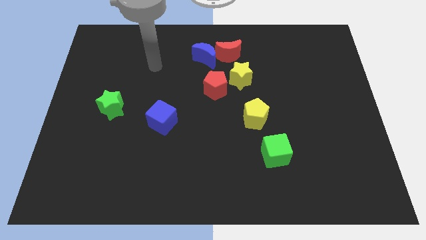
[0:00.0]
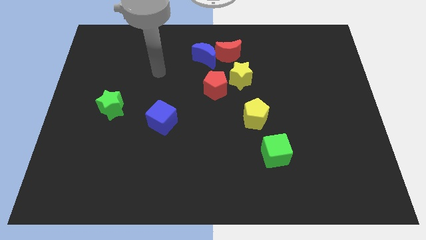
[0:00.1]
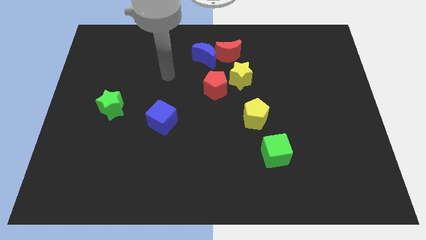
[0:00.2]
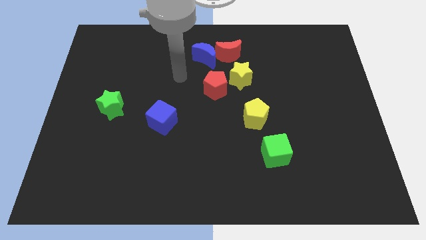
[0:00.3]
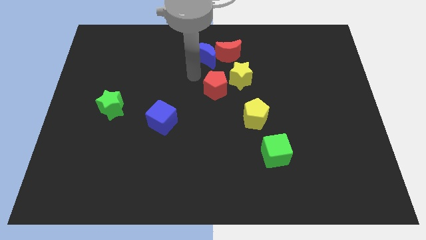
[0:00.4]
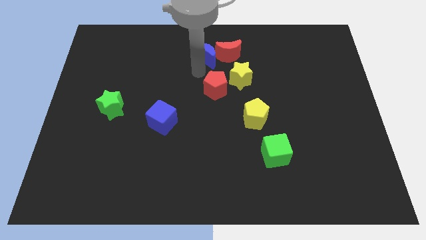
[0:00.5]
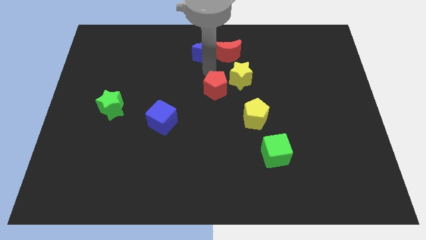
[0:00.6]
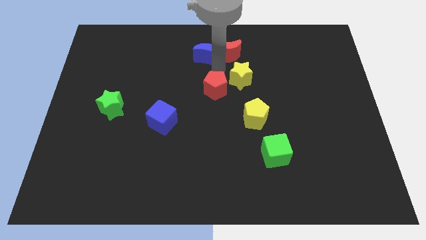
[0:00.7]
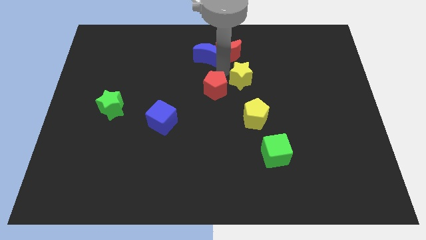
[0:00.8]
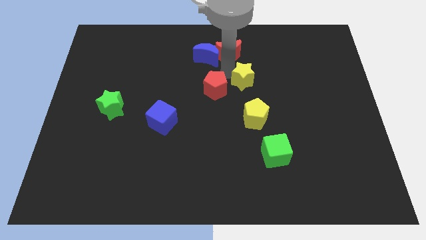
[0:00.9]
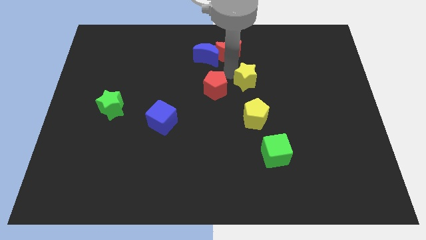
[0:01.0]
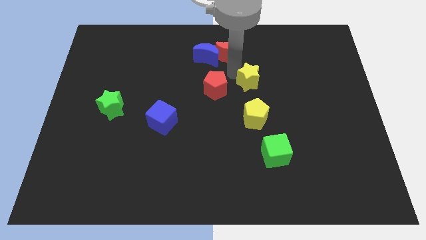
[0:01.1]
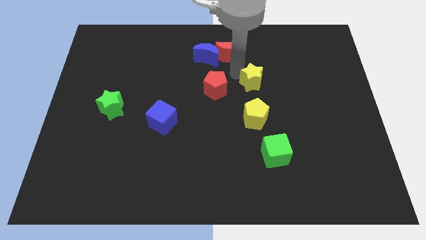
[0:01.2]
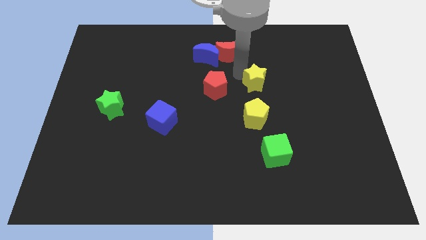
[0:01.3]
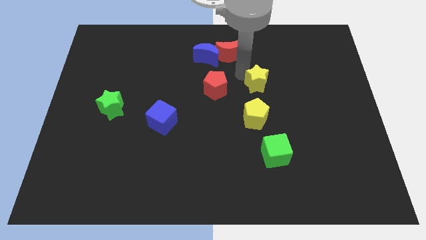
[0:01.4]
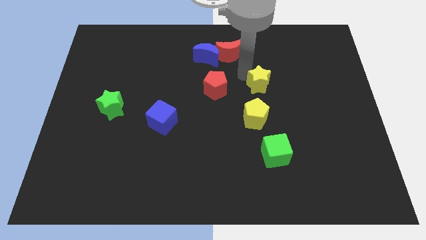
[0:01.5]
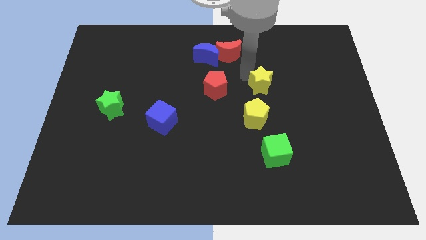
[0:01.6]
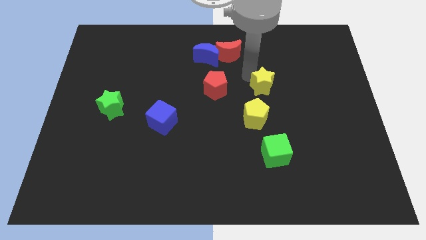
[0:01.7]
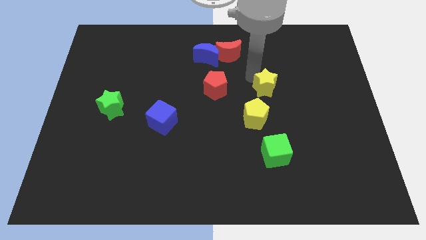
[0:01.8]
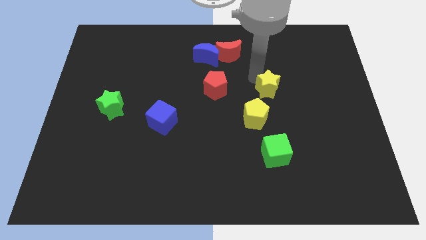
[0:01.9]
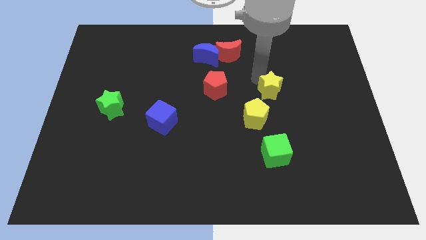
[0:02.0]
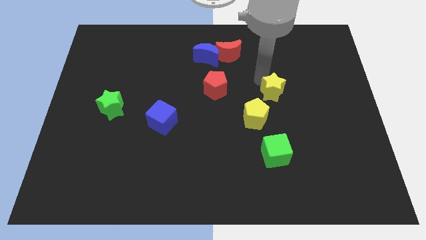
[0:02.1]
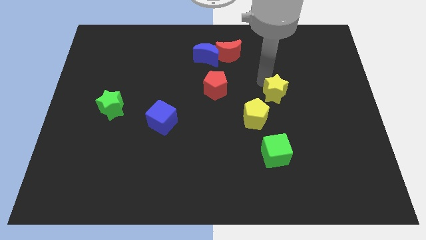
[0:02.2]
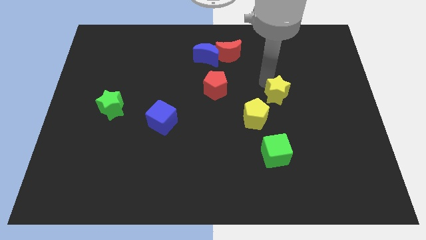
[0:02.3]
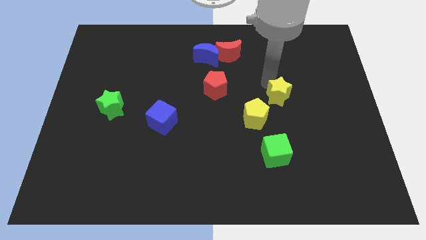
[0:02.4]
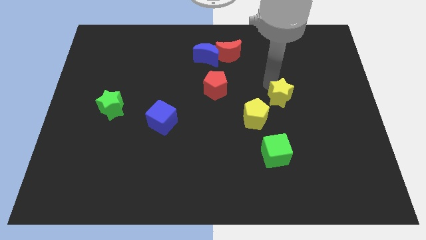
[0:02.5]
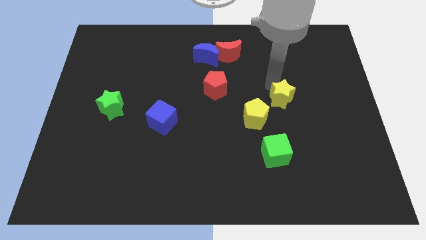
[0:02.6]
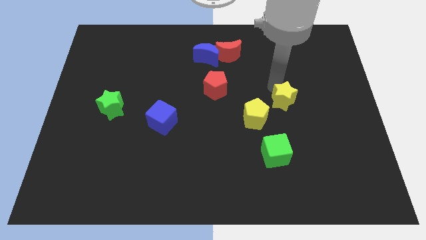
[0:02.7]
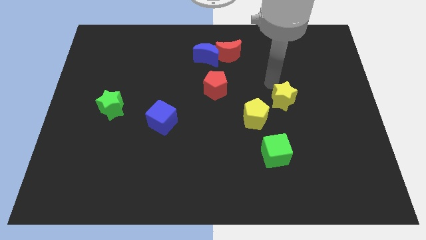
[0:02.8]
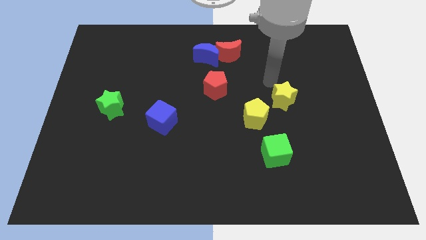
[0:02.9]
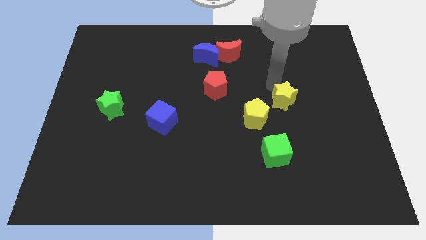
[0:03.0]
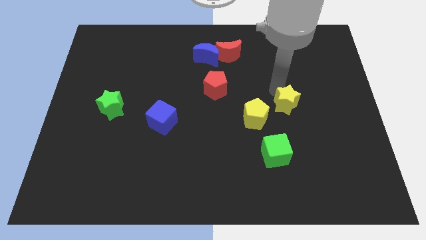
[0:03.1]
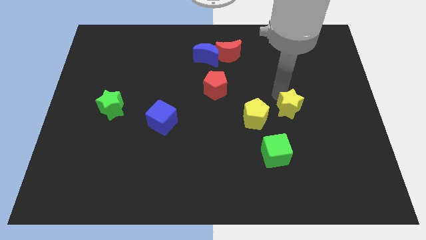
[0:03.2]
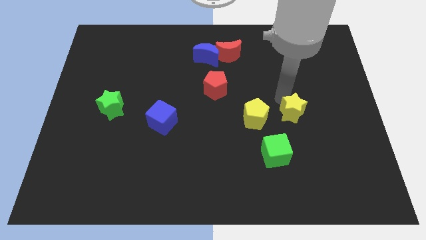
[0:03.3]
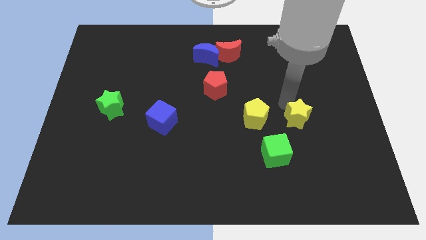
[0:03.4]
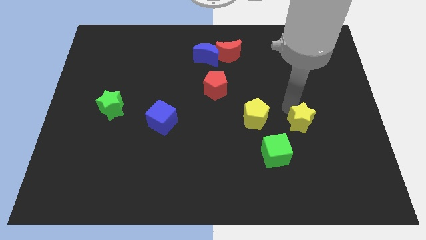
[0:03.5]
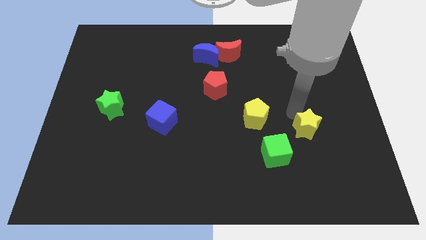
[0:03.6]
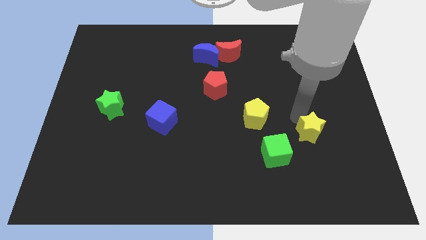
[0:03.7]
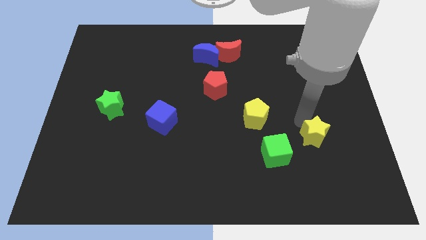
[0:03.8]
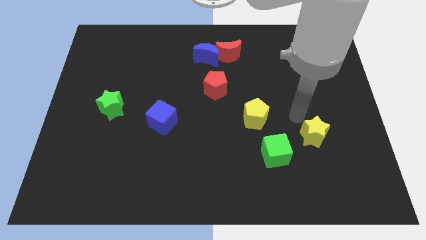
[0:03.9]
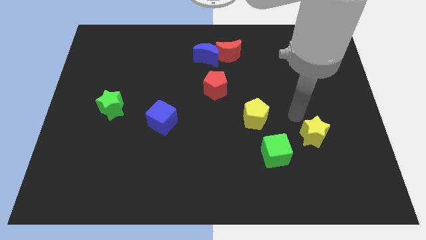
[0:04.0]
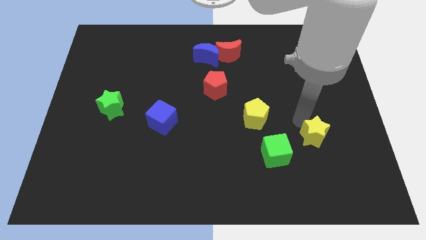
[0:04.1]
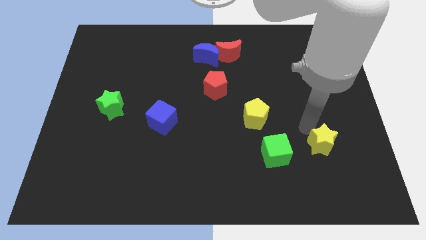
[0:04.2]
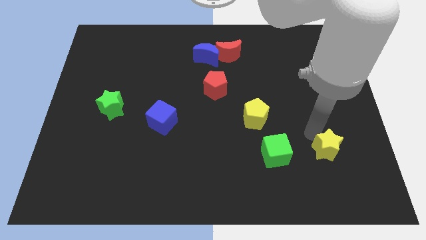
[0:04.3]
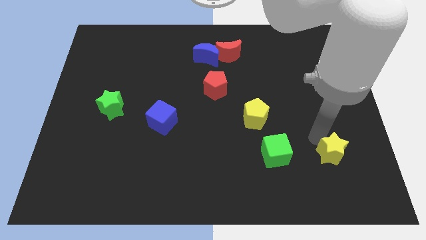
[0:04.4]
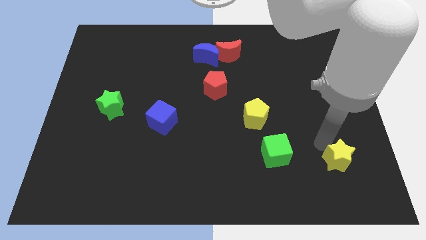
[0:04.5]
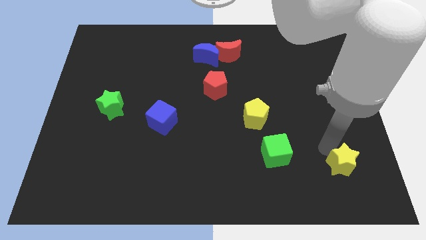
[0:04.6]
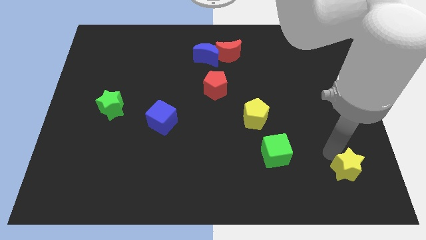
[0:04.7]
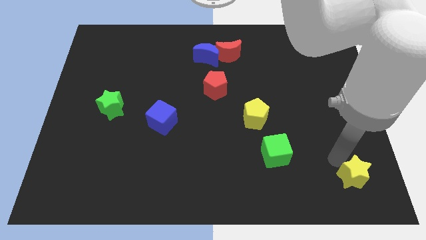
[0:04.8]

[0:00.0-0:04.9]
move the yellow star to the bottom right of the board

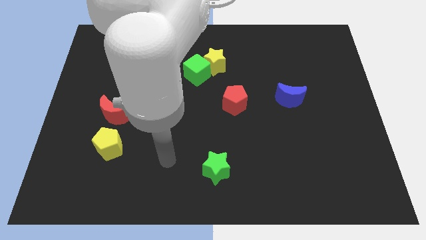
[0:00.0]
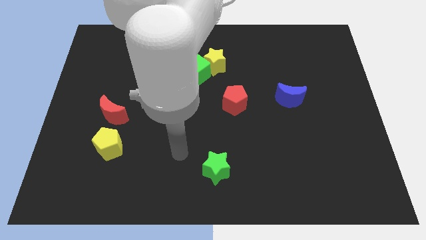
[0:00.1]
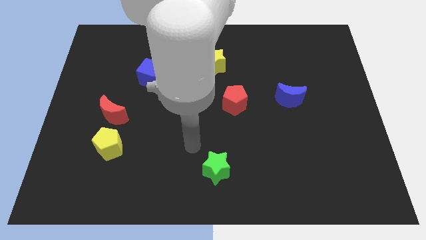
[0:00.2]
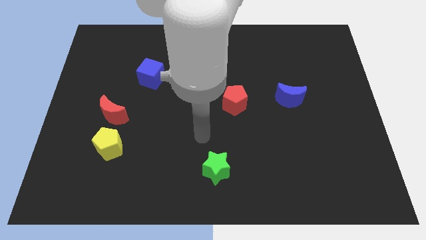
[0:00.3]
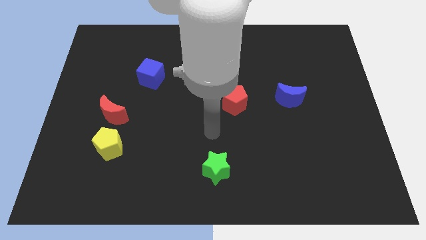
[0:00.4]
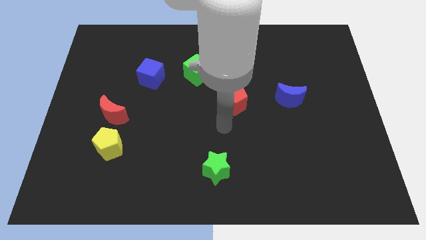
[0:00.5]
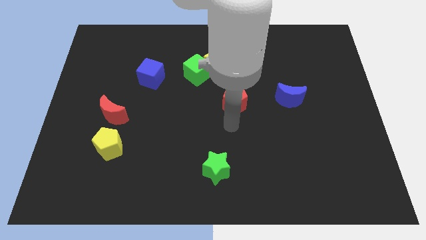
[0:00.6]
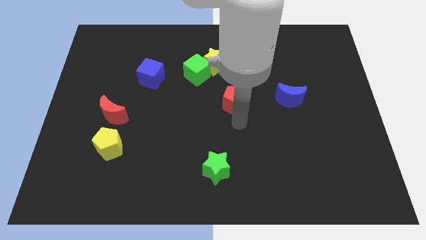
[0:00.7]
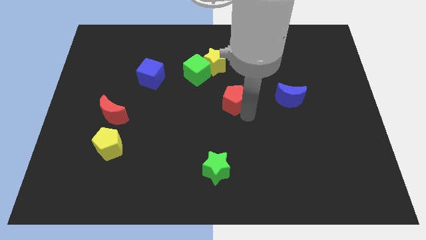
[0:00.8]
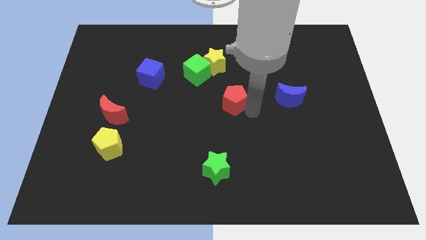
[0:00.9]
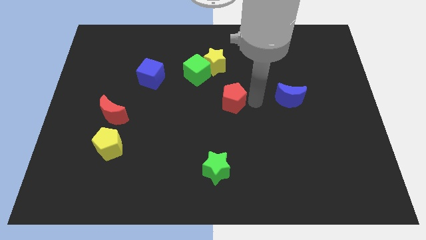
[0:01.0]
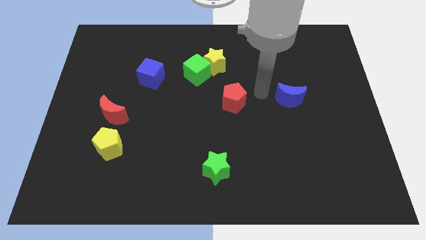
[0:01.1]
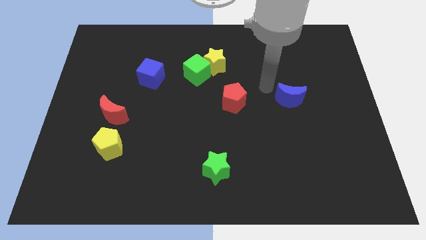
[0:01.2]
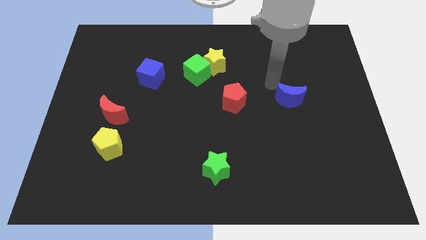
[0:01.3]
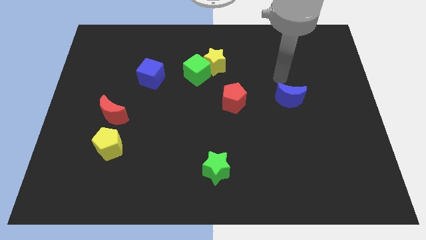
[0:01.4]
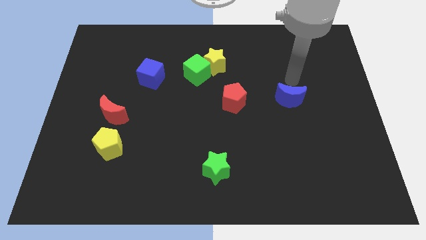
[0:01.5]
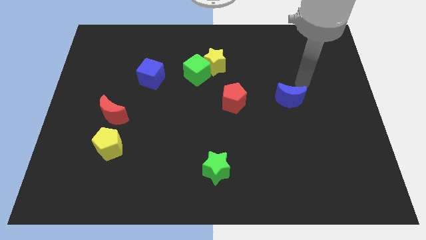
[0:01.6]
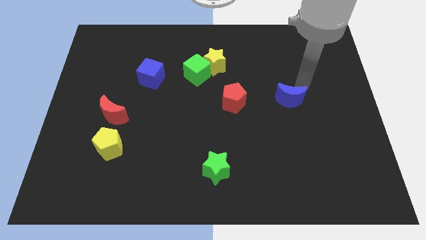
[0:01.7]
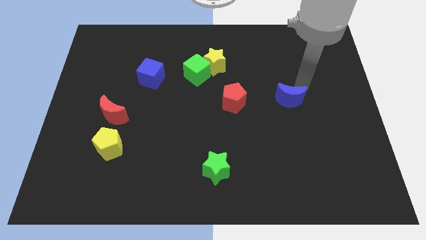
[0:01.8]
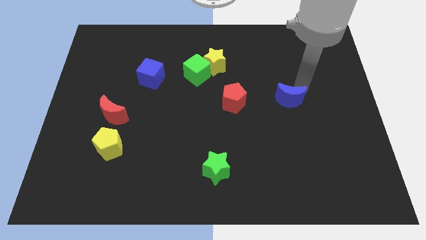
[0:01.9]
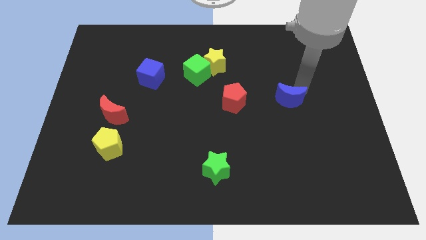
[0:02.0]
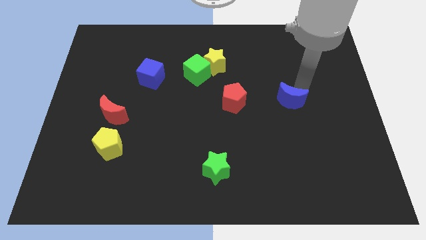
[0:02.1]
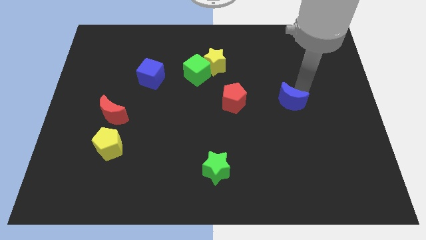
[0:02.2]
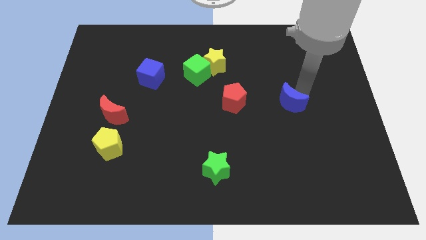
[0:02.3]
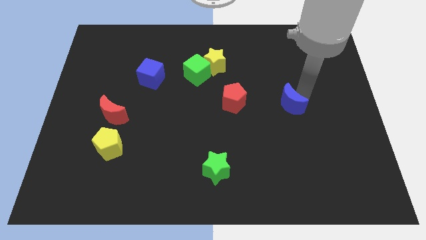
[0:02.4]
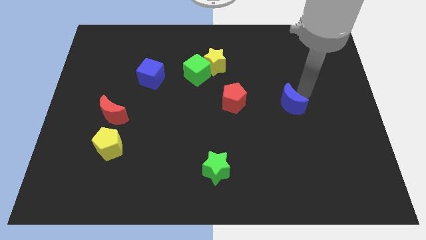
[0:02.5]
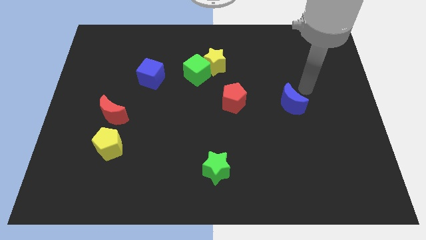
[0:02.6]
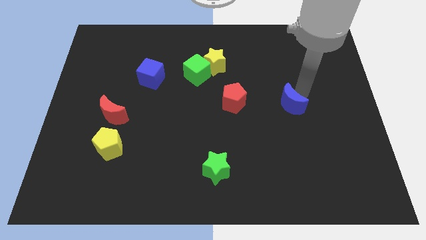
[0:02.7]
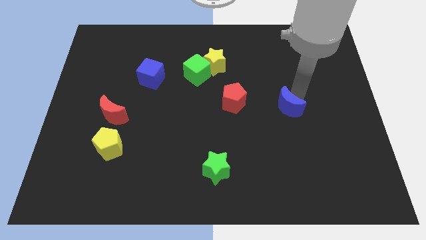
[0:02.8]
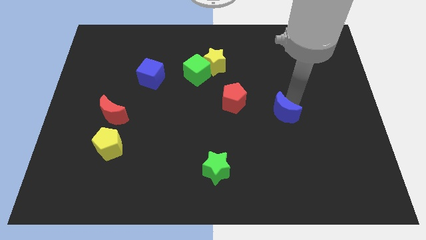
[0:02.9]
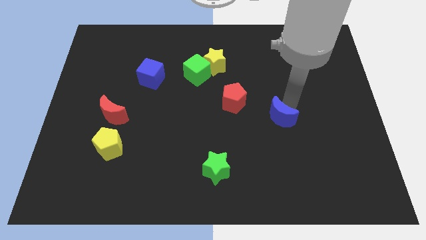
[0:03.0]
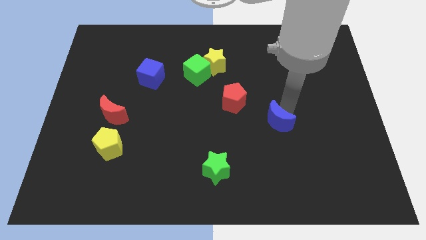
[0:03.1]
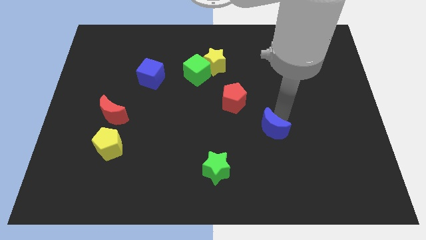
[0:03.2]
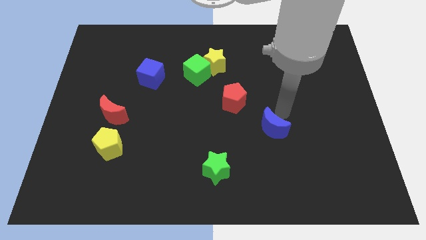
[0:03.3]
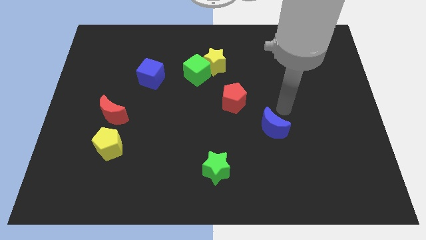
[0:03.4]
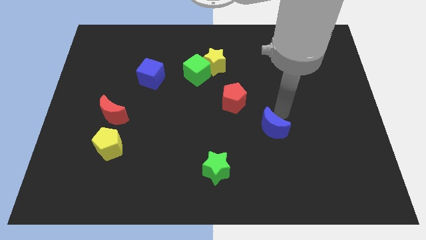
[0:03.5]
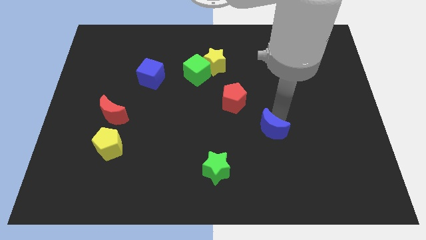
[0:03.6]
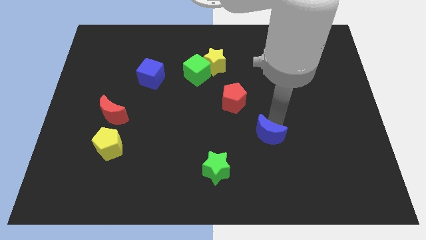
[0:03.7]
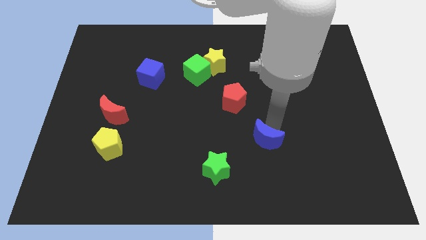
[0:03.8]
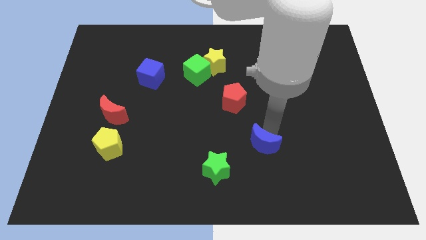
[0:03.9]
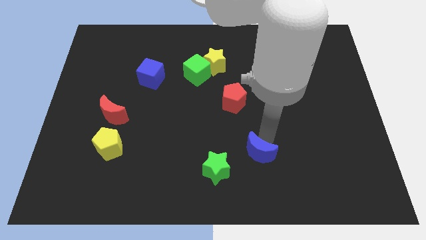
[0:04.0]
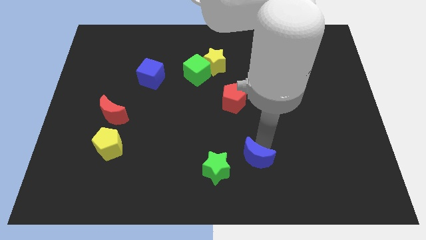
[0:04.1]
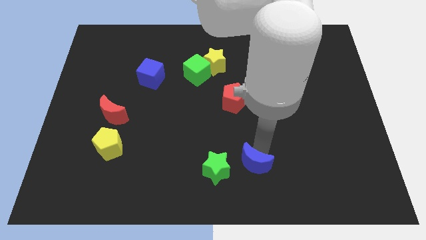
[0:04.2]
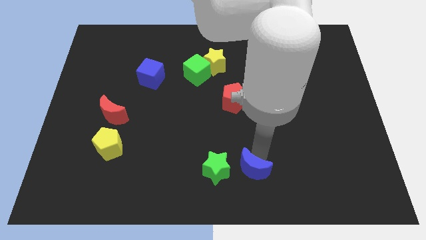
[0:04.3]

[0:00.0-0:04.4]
slide the blue moon to the bottom side
